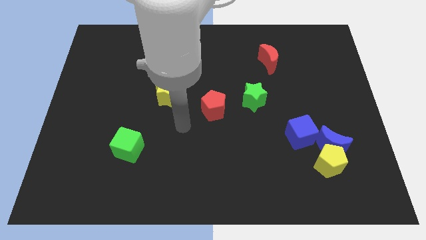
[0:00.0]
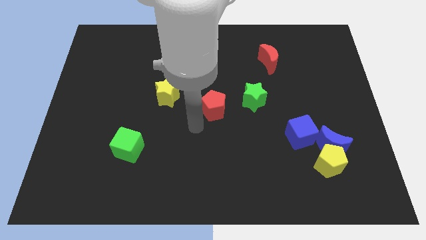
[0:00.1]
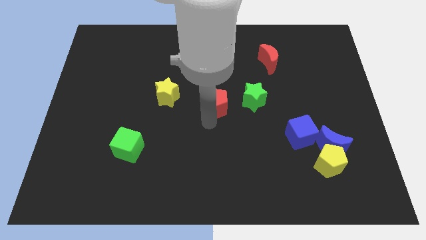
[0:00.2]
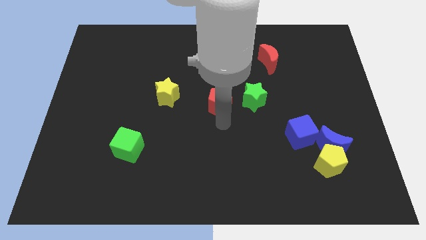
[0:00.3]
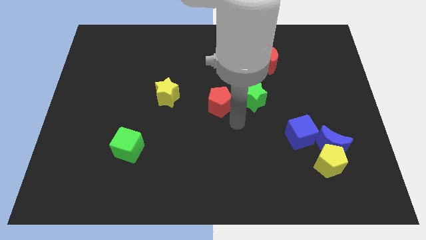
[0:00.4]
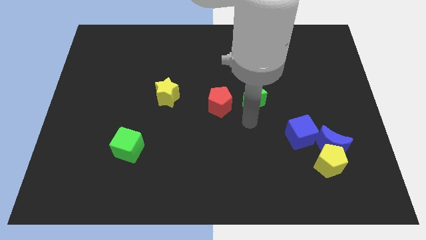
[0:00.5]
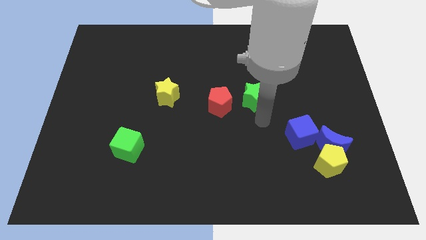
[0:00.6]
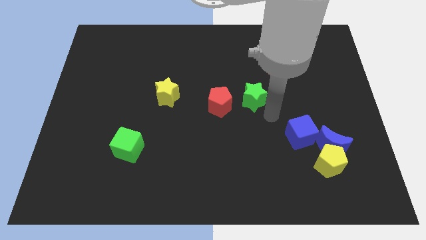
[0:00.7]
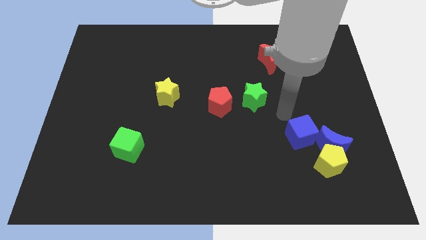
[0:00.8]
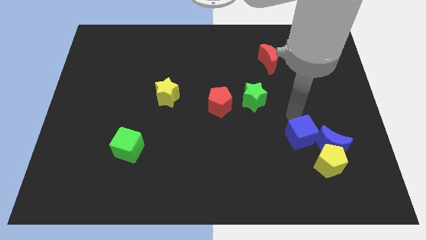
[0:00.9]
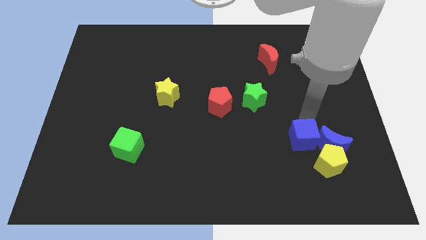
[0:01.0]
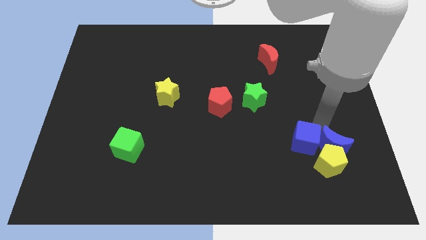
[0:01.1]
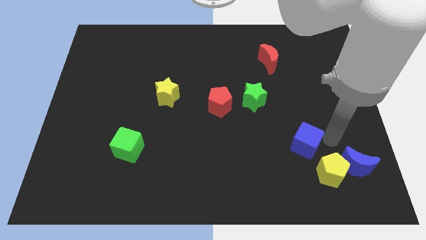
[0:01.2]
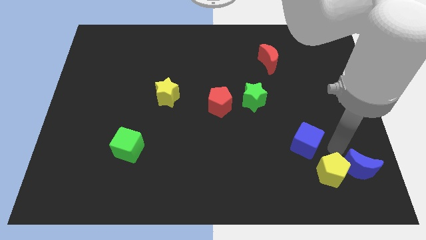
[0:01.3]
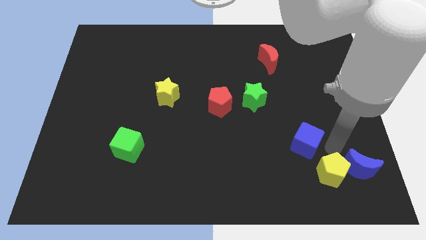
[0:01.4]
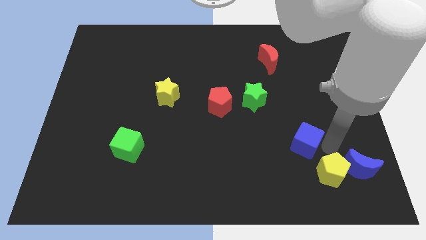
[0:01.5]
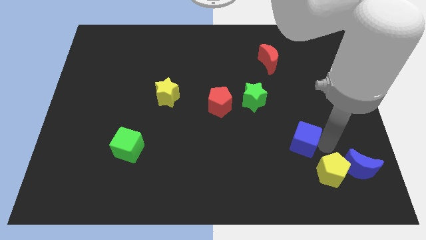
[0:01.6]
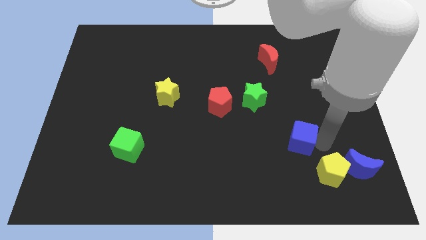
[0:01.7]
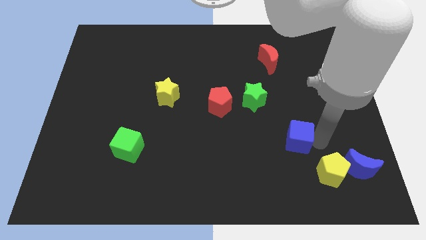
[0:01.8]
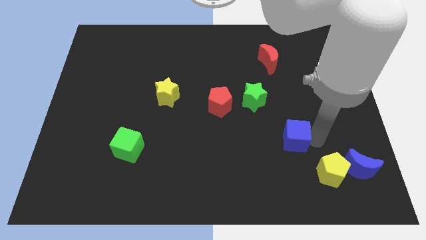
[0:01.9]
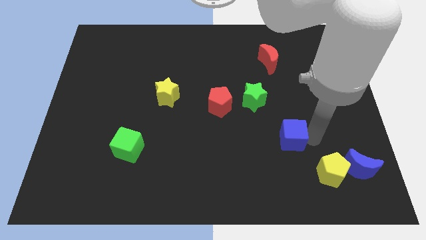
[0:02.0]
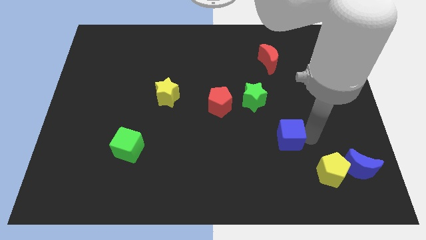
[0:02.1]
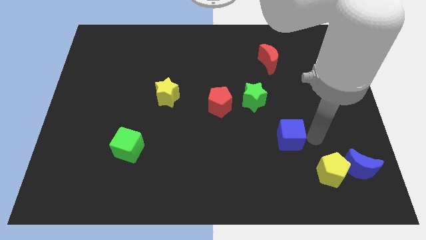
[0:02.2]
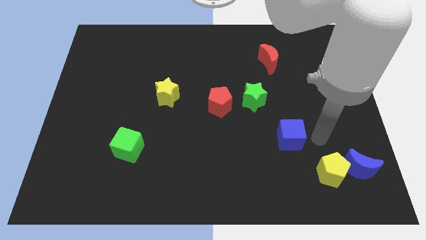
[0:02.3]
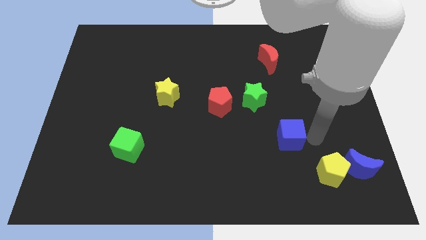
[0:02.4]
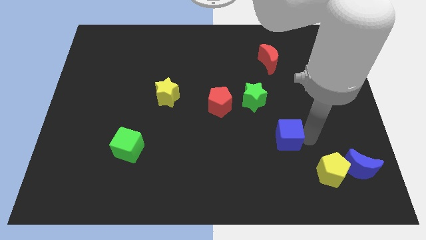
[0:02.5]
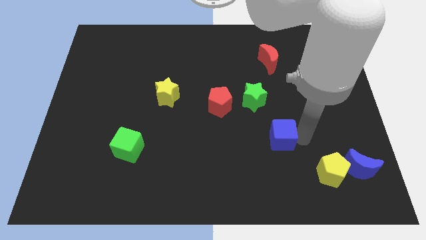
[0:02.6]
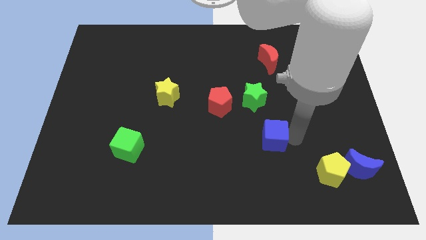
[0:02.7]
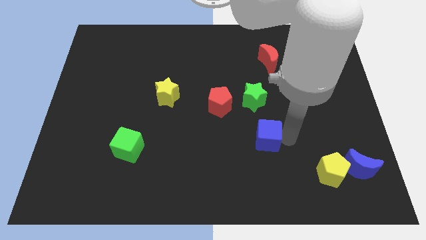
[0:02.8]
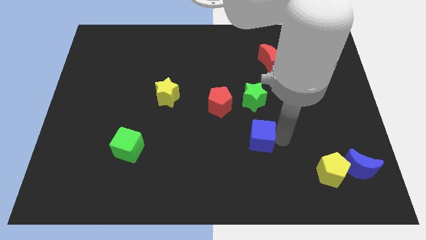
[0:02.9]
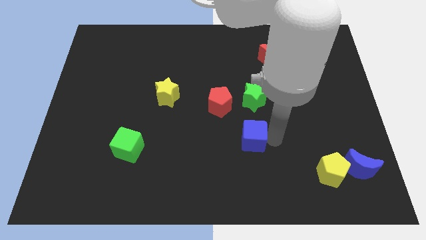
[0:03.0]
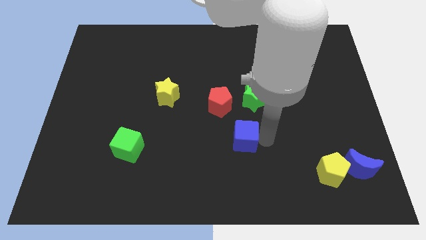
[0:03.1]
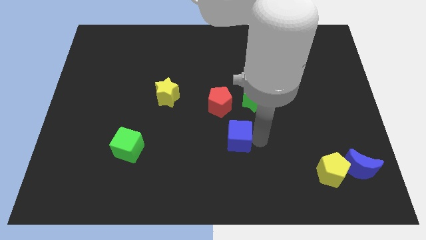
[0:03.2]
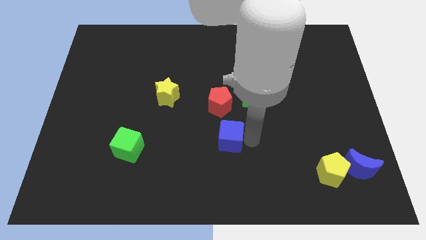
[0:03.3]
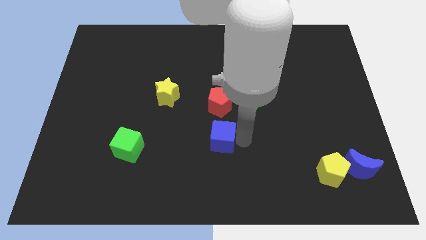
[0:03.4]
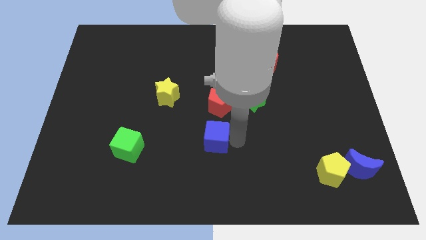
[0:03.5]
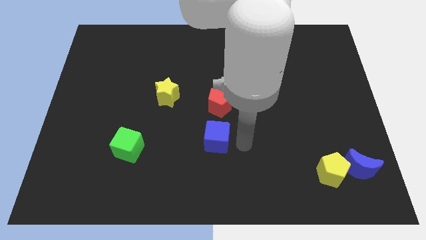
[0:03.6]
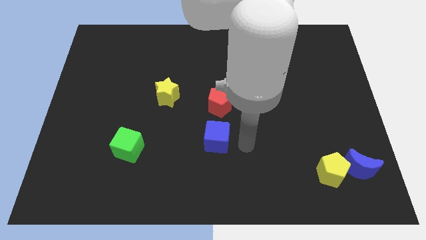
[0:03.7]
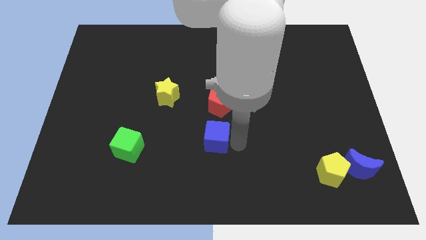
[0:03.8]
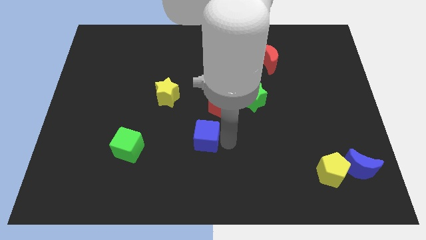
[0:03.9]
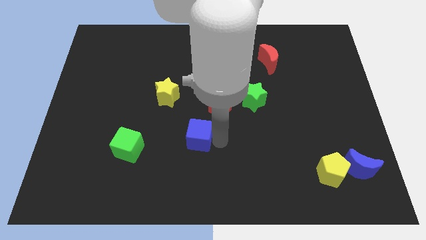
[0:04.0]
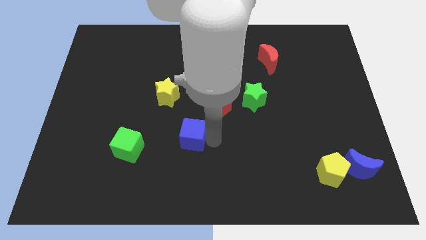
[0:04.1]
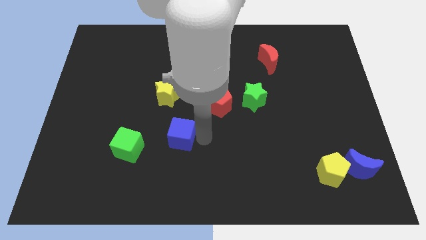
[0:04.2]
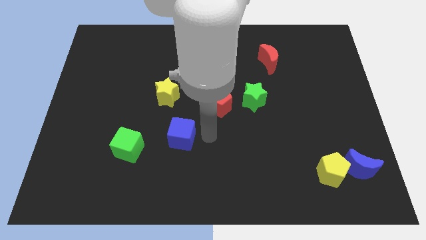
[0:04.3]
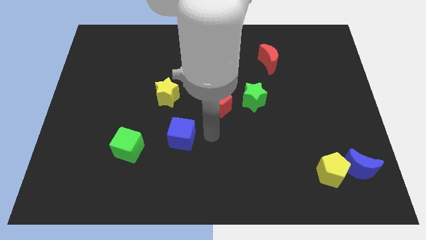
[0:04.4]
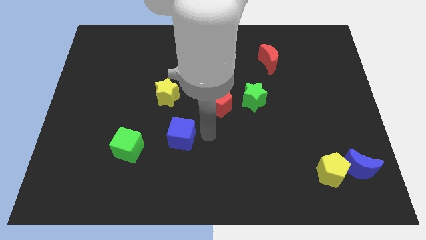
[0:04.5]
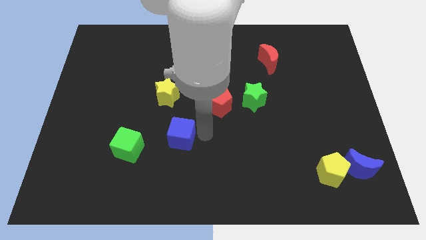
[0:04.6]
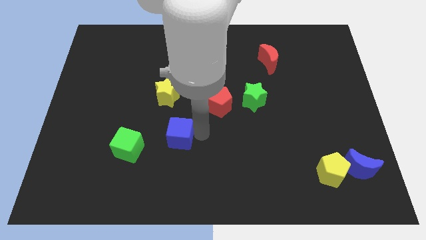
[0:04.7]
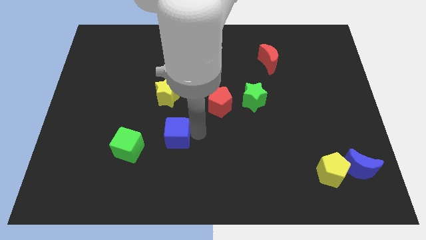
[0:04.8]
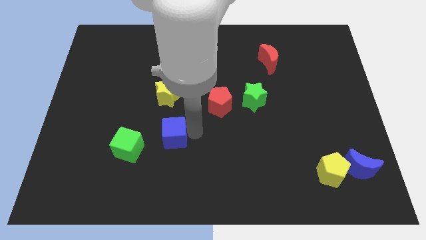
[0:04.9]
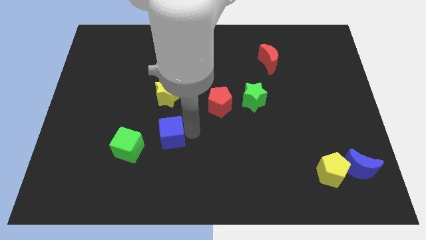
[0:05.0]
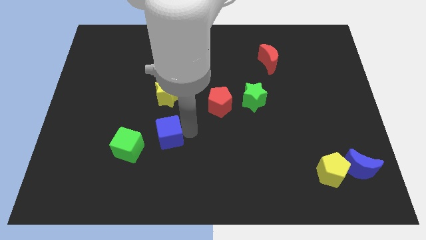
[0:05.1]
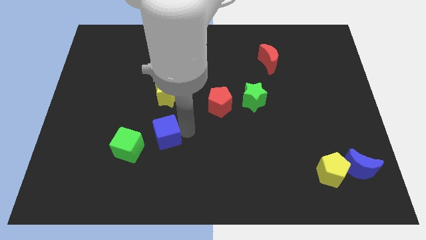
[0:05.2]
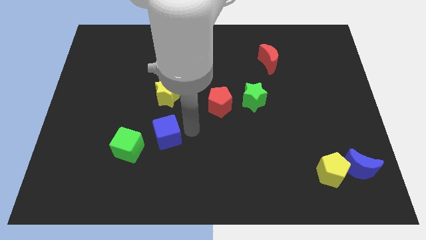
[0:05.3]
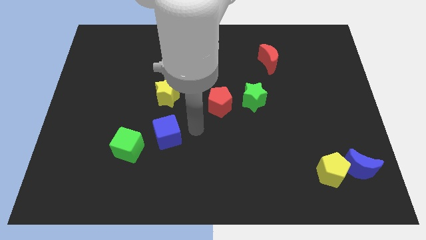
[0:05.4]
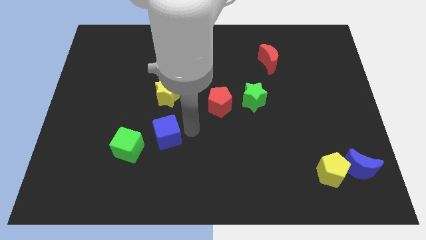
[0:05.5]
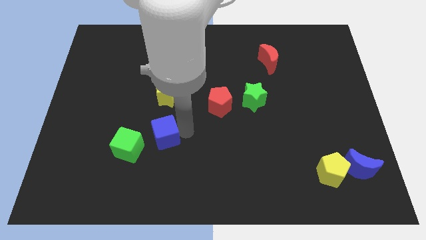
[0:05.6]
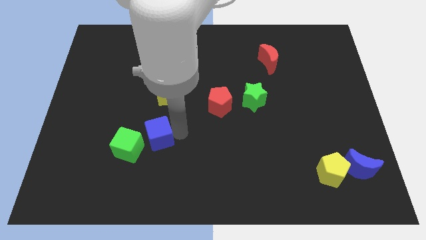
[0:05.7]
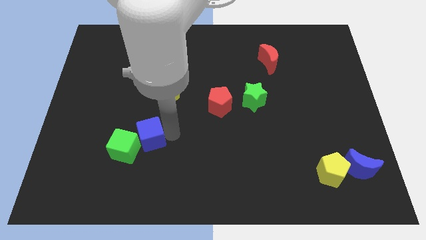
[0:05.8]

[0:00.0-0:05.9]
put the blue cube next to the green cube

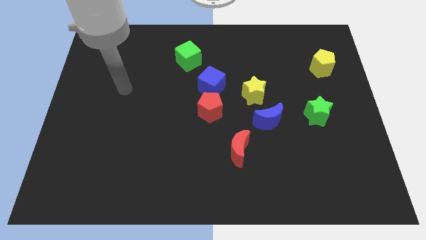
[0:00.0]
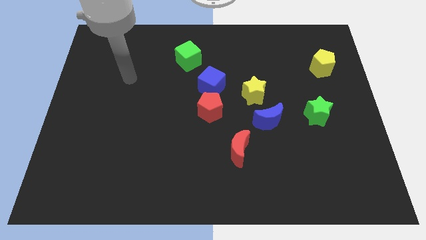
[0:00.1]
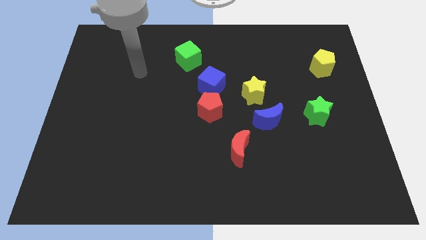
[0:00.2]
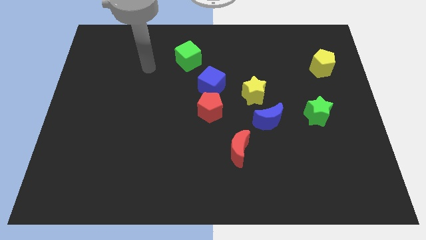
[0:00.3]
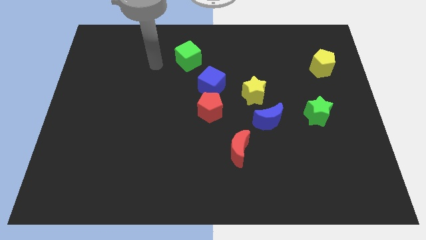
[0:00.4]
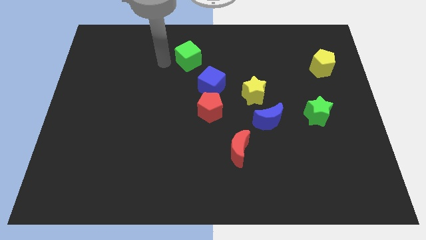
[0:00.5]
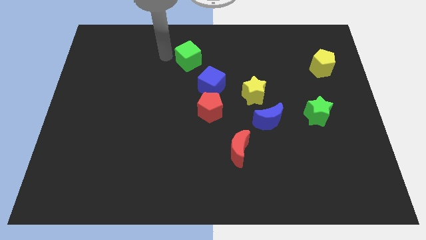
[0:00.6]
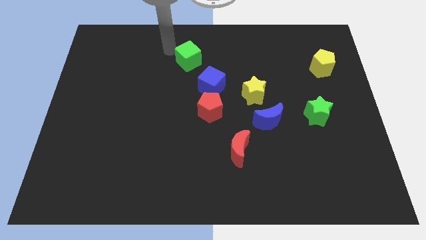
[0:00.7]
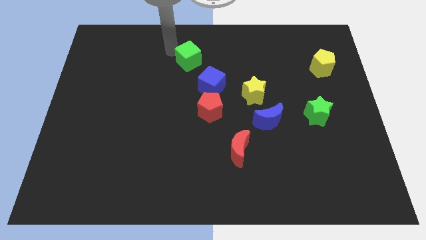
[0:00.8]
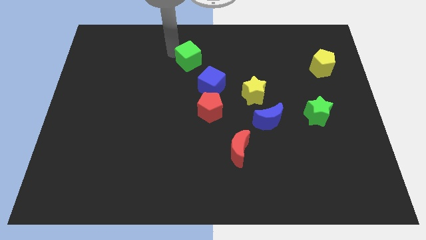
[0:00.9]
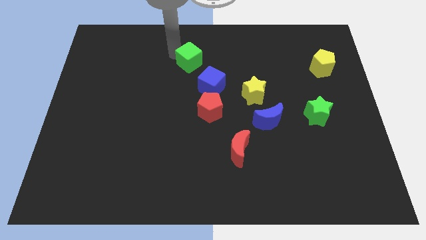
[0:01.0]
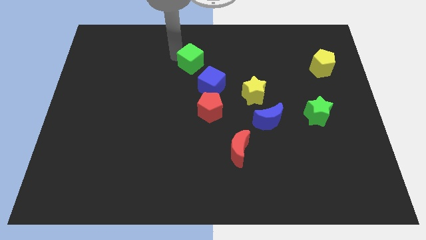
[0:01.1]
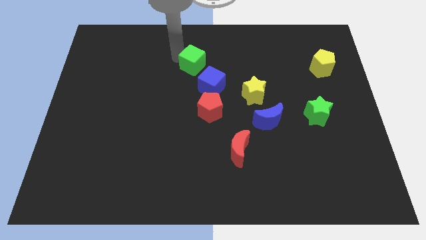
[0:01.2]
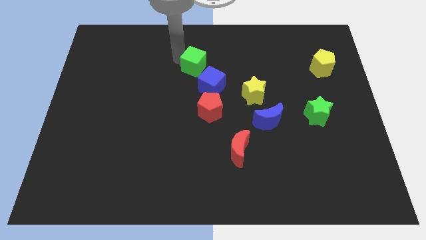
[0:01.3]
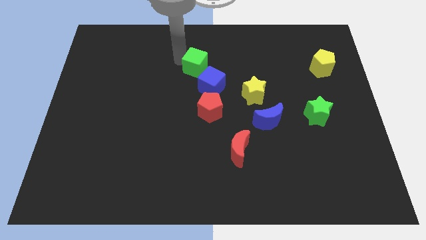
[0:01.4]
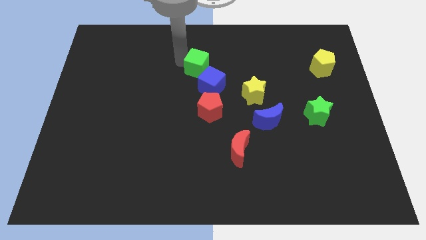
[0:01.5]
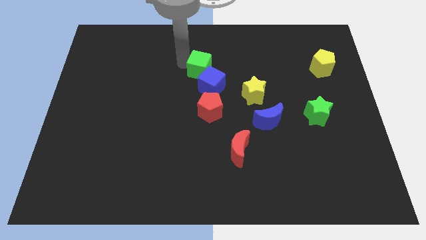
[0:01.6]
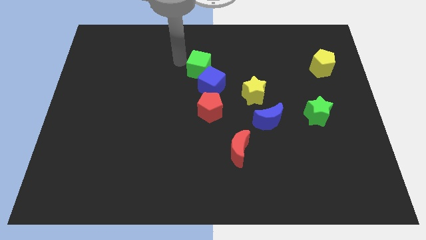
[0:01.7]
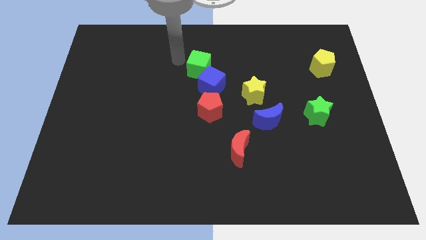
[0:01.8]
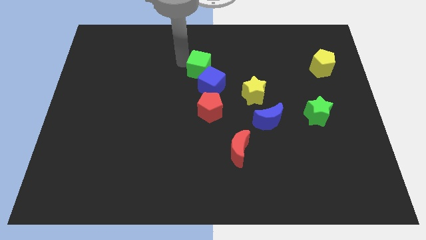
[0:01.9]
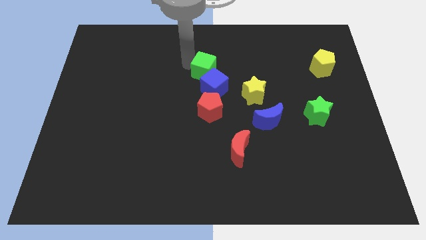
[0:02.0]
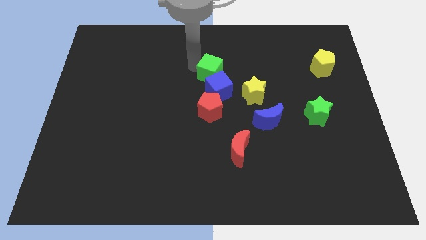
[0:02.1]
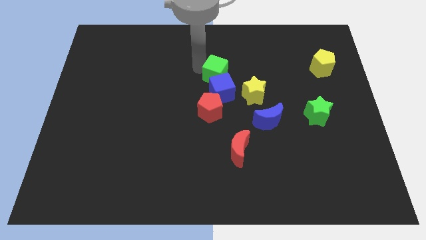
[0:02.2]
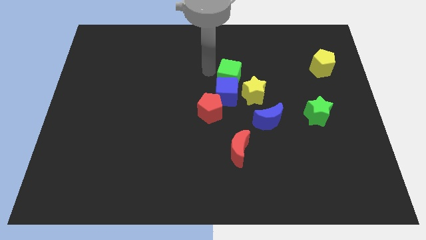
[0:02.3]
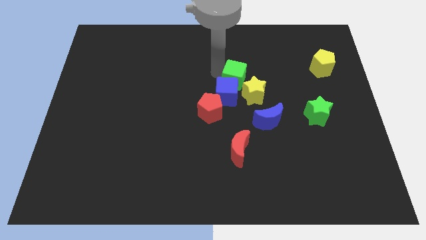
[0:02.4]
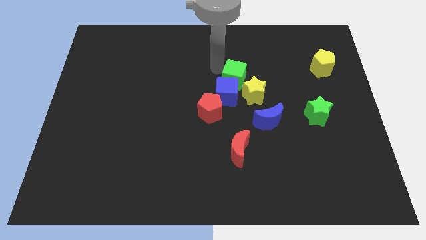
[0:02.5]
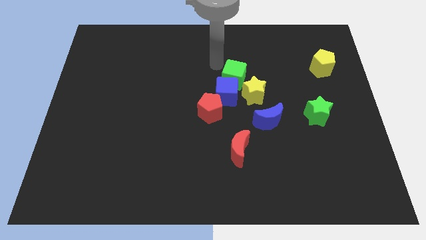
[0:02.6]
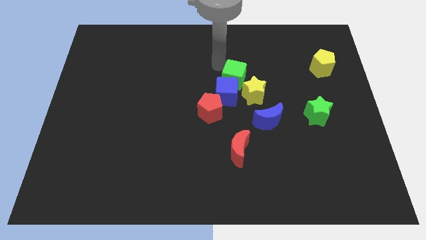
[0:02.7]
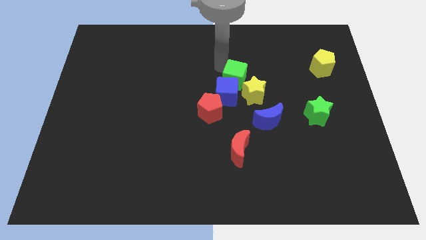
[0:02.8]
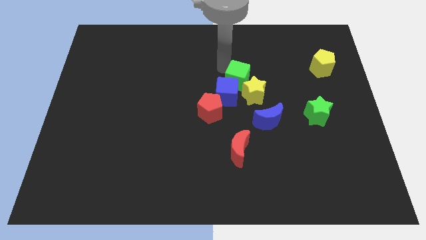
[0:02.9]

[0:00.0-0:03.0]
slide the green cube towards the yellow star
